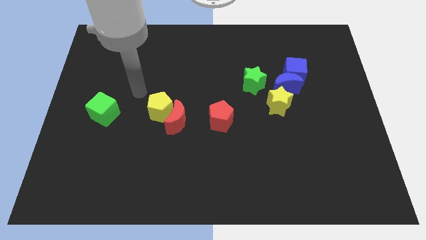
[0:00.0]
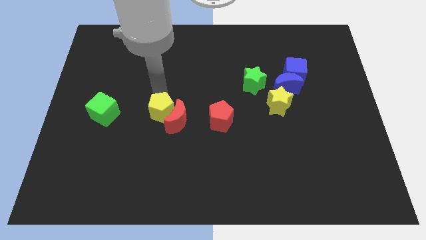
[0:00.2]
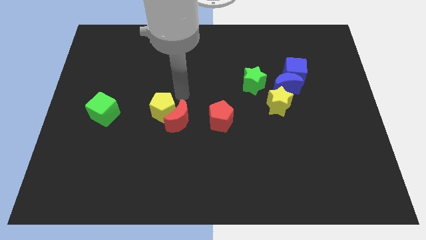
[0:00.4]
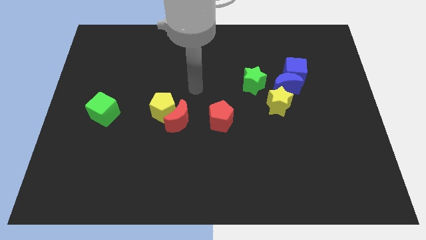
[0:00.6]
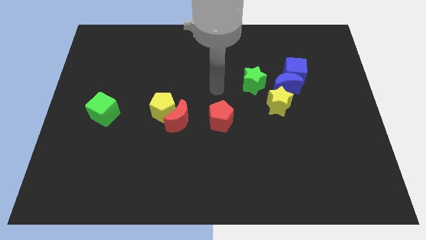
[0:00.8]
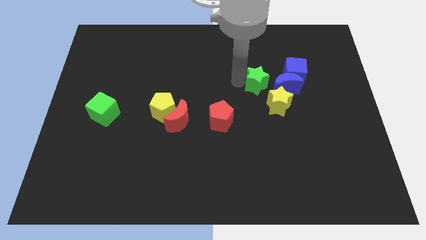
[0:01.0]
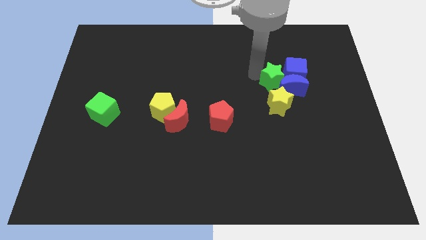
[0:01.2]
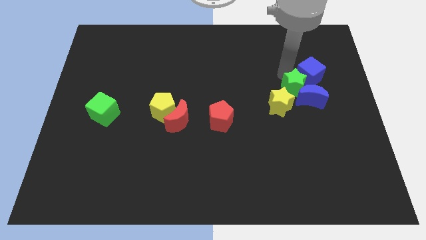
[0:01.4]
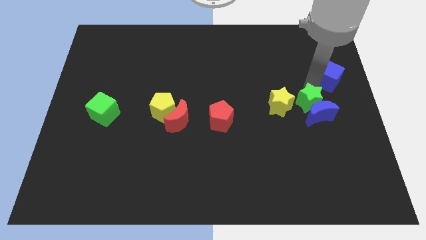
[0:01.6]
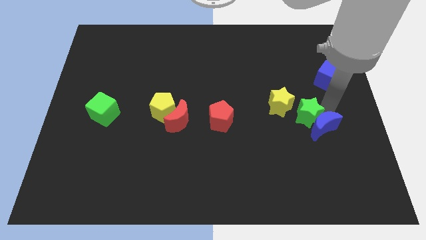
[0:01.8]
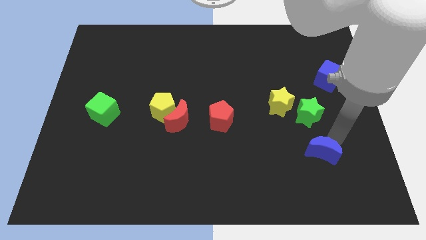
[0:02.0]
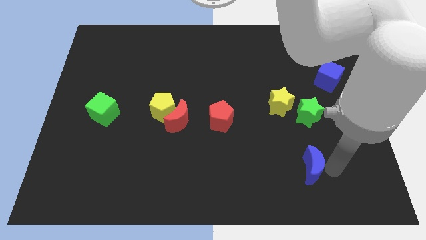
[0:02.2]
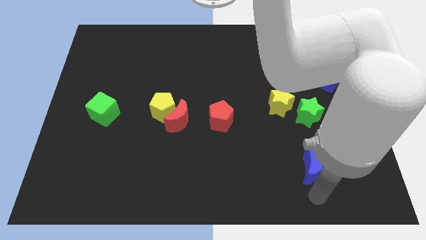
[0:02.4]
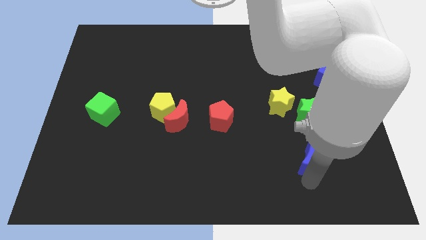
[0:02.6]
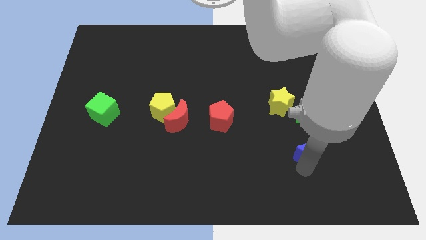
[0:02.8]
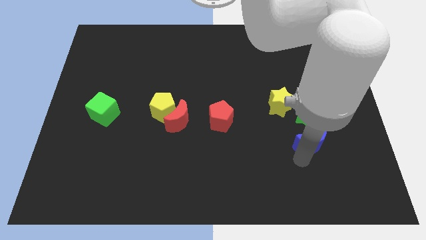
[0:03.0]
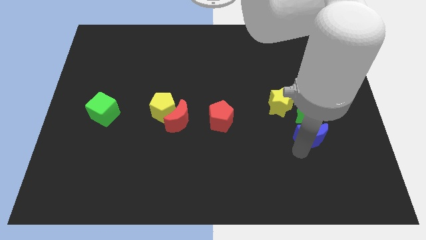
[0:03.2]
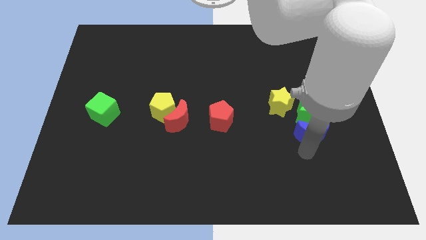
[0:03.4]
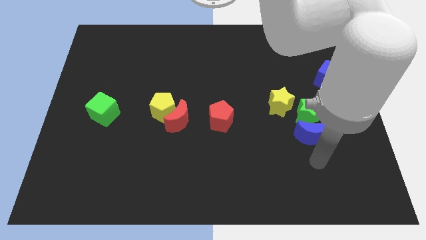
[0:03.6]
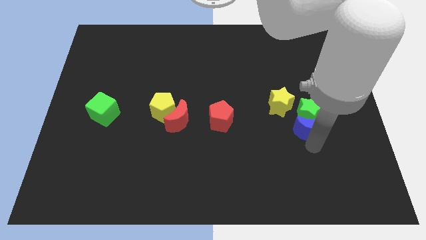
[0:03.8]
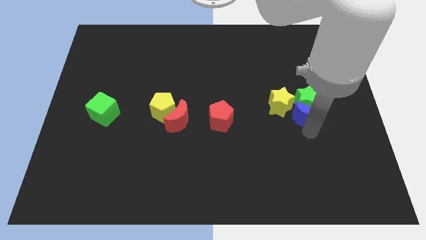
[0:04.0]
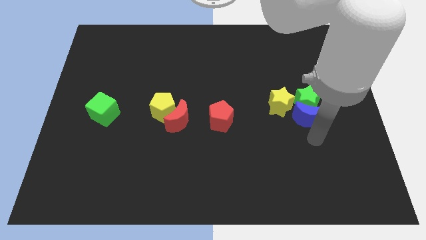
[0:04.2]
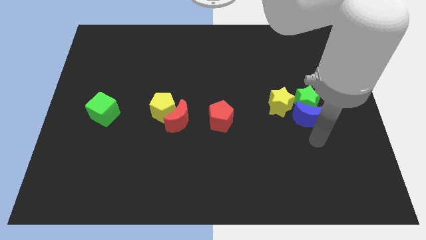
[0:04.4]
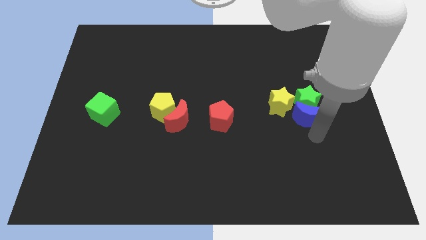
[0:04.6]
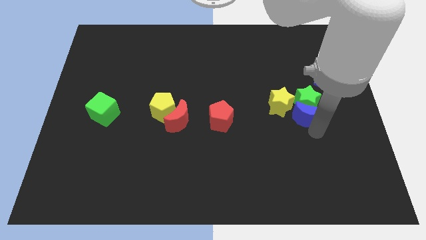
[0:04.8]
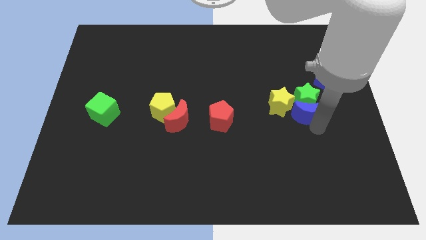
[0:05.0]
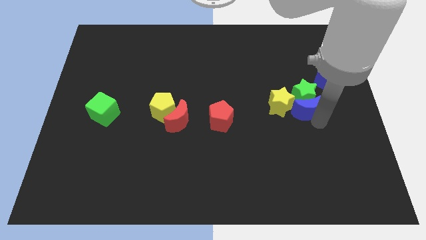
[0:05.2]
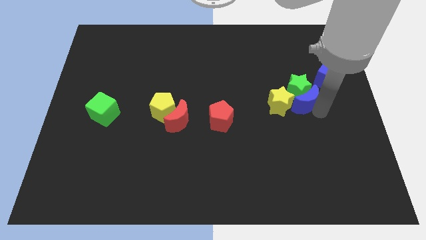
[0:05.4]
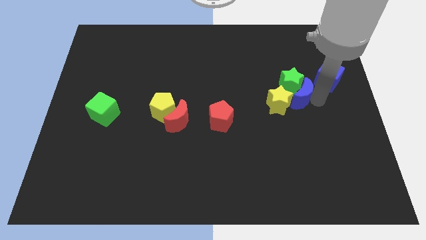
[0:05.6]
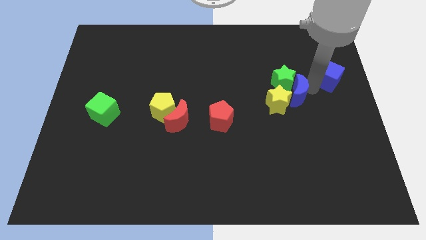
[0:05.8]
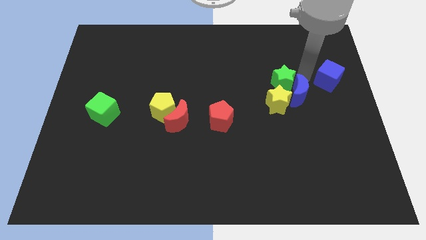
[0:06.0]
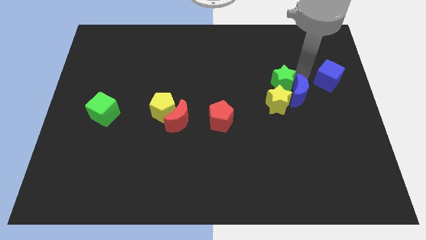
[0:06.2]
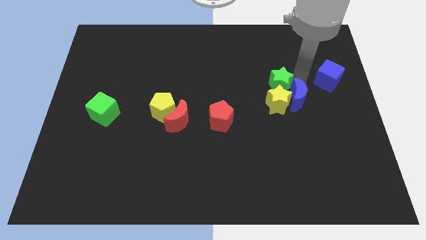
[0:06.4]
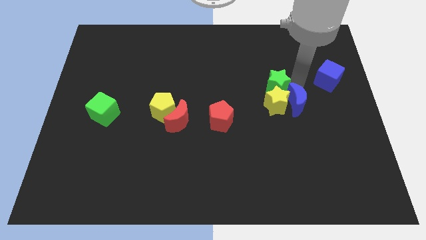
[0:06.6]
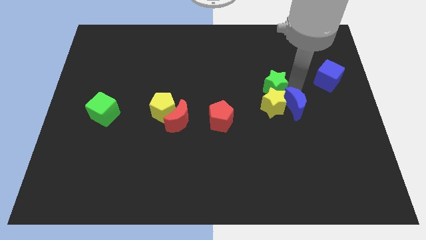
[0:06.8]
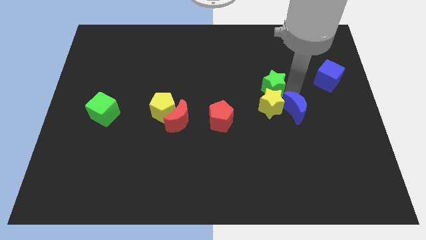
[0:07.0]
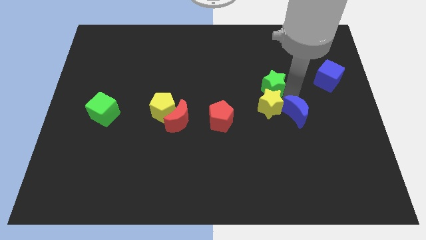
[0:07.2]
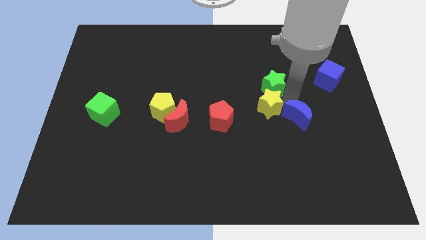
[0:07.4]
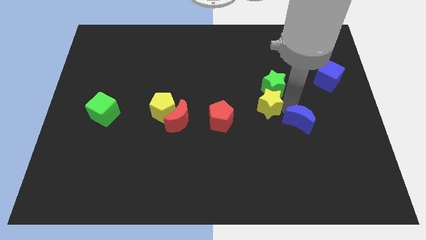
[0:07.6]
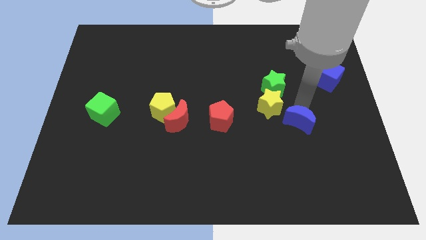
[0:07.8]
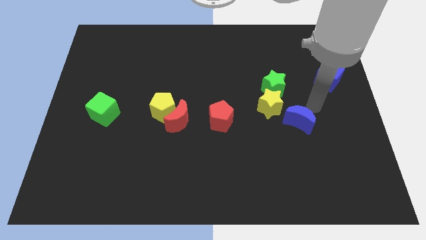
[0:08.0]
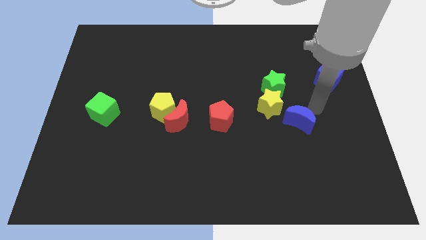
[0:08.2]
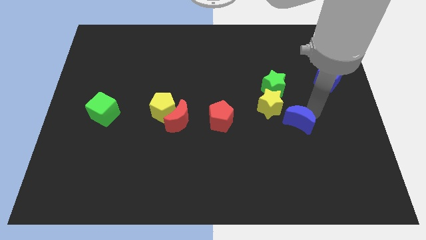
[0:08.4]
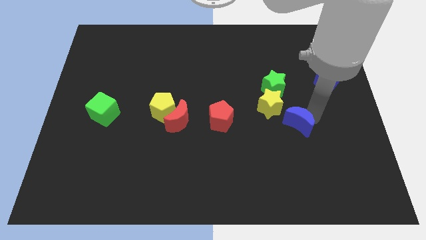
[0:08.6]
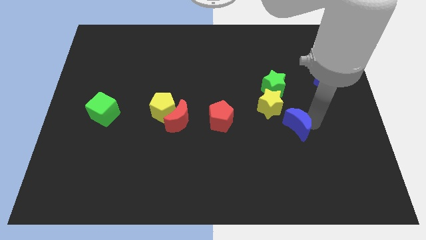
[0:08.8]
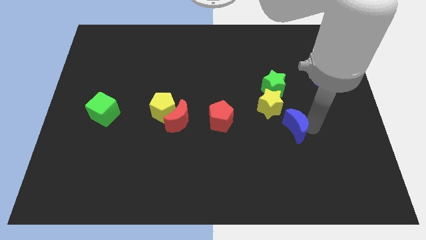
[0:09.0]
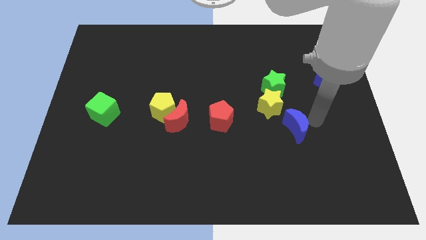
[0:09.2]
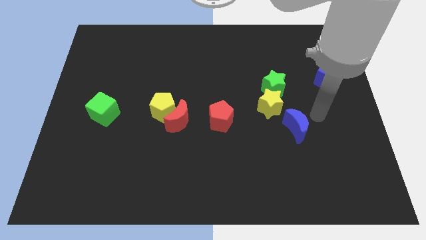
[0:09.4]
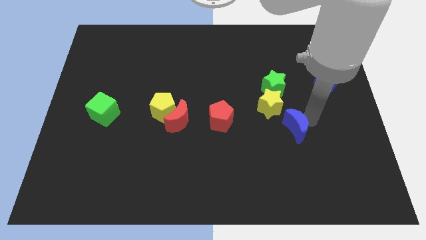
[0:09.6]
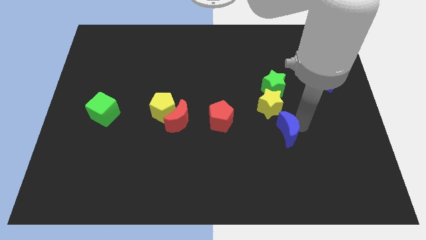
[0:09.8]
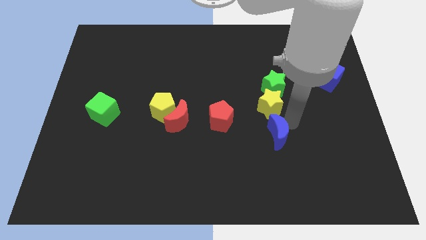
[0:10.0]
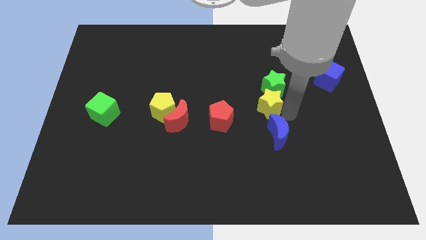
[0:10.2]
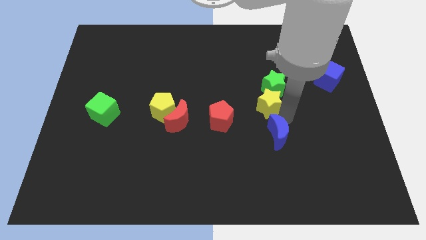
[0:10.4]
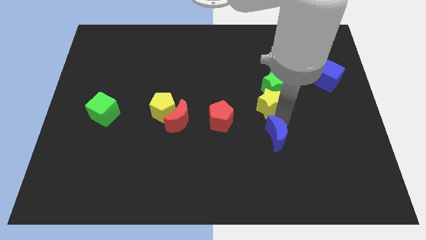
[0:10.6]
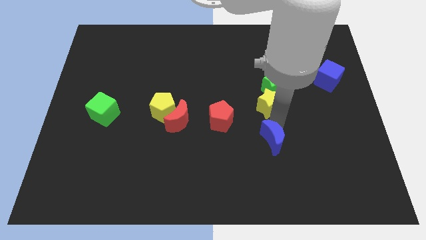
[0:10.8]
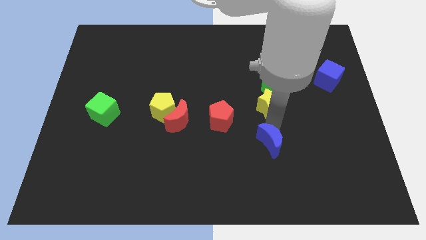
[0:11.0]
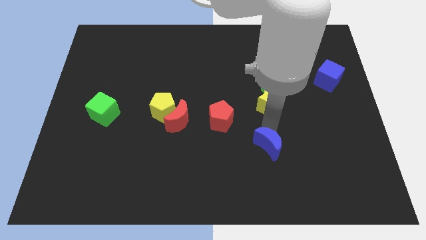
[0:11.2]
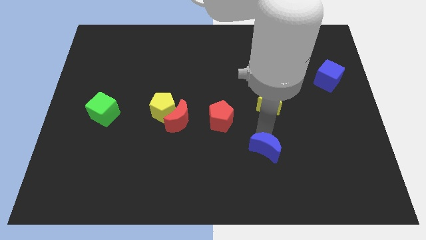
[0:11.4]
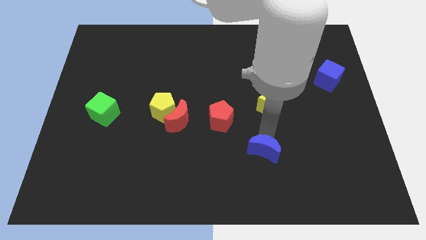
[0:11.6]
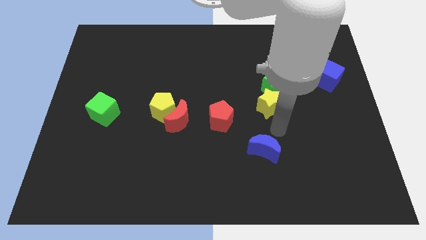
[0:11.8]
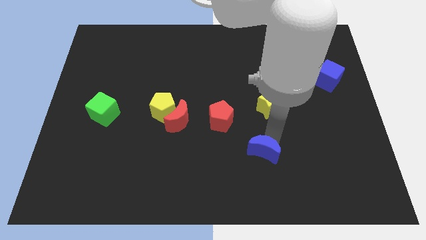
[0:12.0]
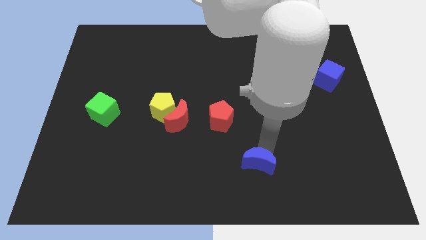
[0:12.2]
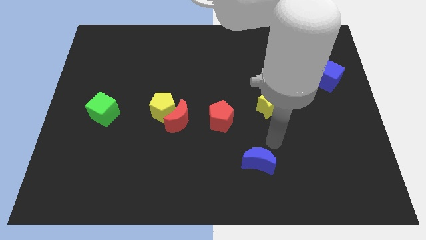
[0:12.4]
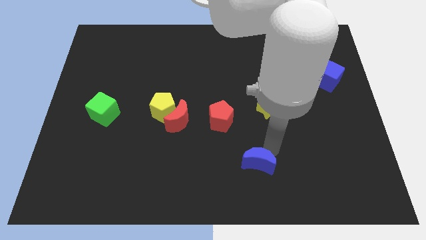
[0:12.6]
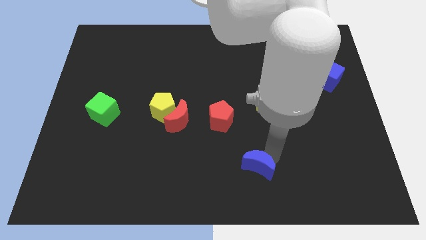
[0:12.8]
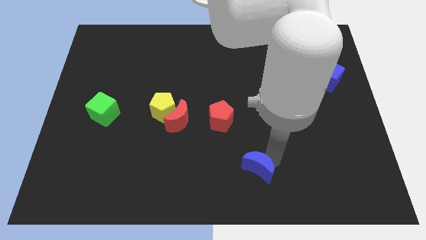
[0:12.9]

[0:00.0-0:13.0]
put the blue moon to the bottom
